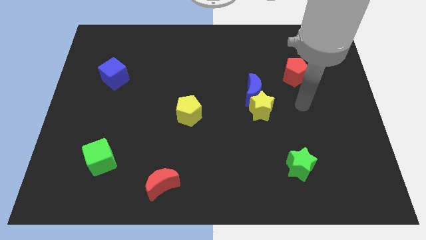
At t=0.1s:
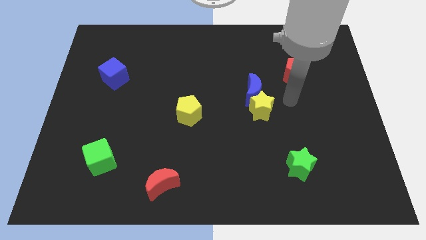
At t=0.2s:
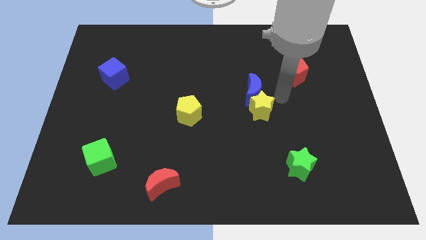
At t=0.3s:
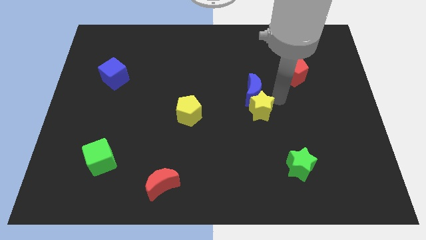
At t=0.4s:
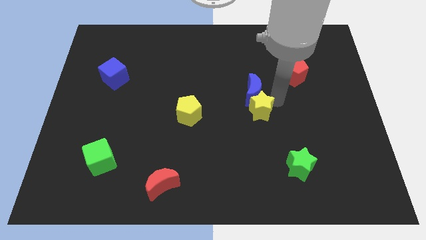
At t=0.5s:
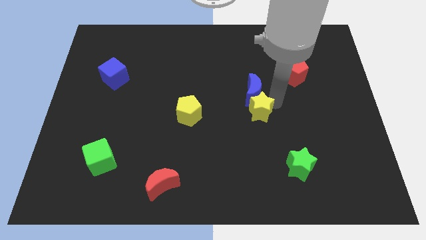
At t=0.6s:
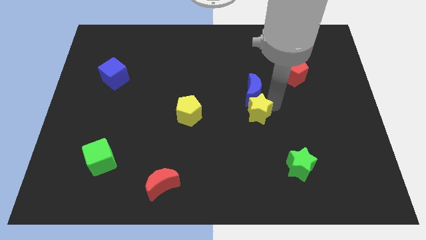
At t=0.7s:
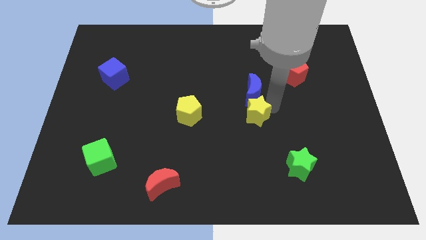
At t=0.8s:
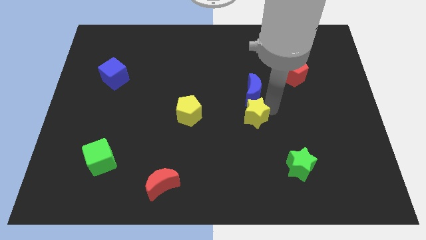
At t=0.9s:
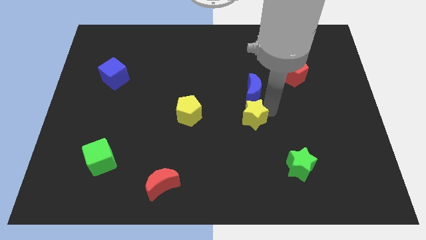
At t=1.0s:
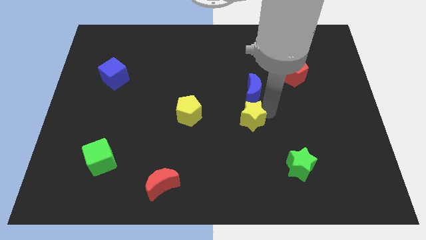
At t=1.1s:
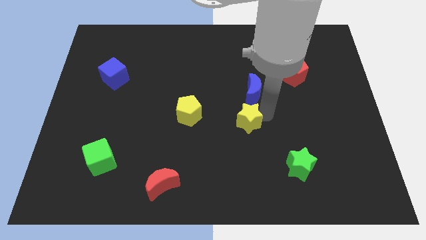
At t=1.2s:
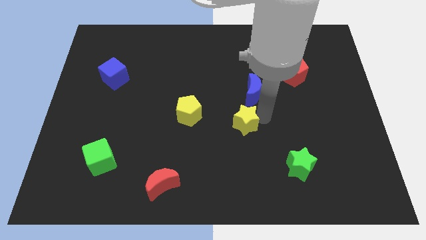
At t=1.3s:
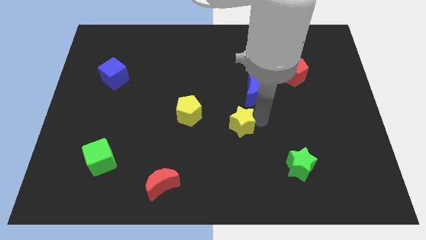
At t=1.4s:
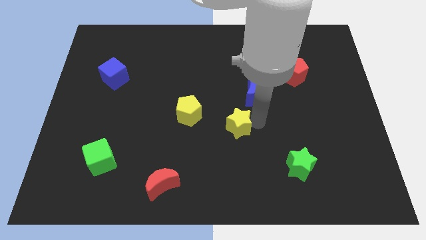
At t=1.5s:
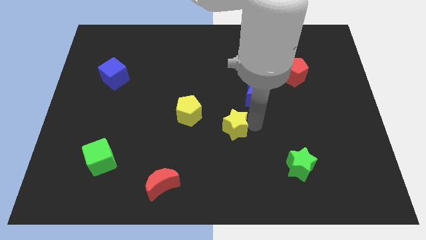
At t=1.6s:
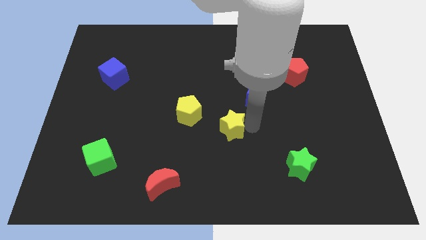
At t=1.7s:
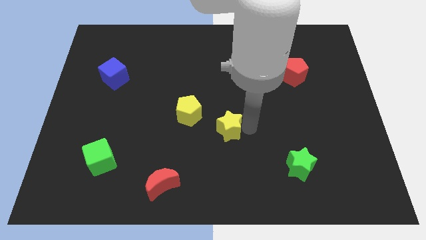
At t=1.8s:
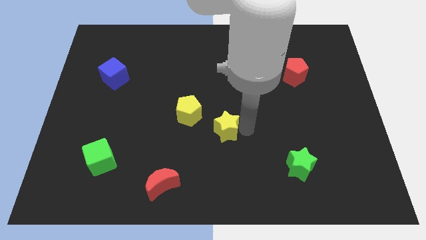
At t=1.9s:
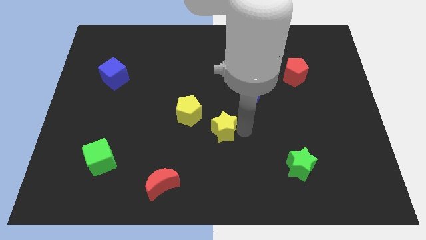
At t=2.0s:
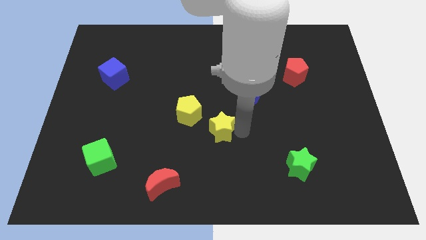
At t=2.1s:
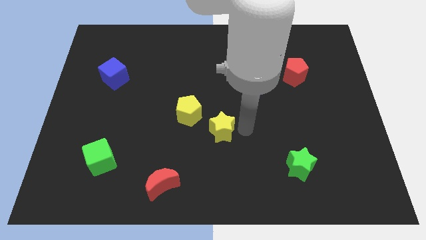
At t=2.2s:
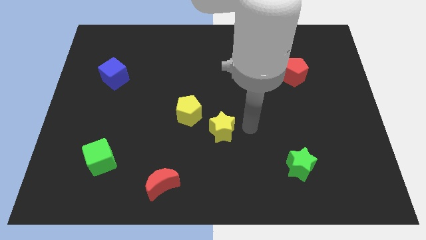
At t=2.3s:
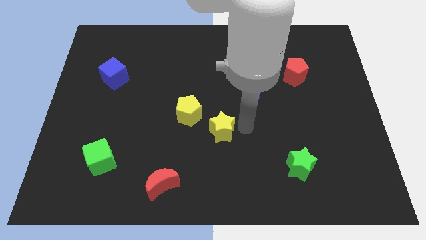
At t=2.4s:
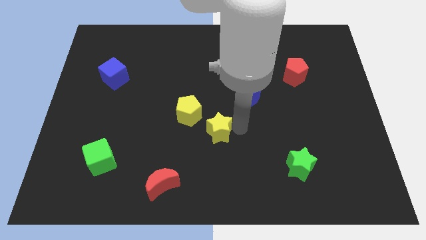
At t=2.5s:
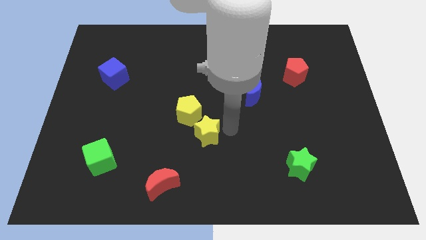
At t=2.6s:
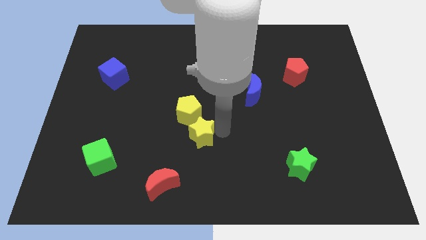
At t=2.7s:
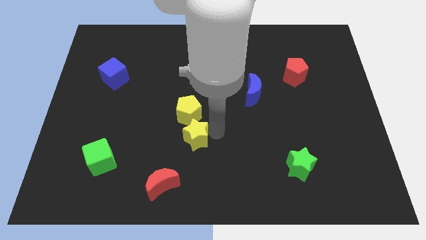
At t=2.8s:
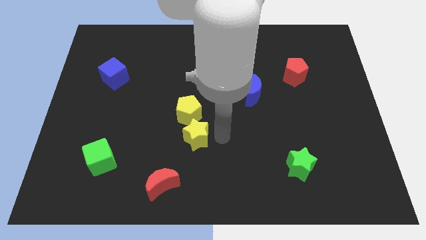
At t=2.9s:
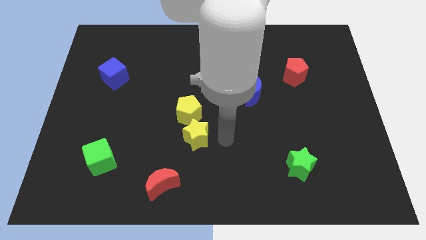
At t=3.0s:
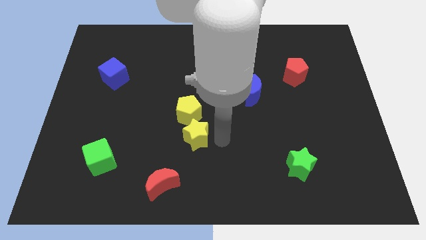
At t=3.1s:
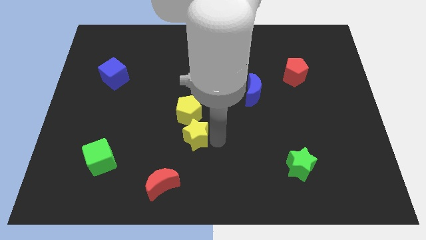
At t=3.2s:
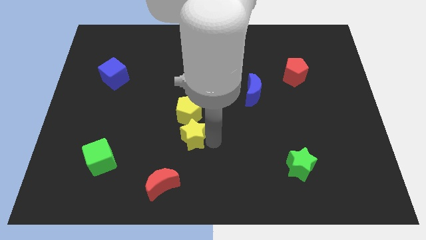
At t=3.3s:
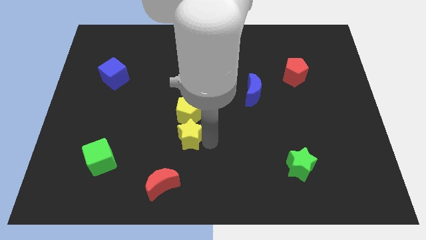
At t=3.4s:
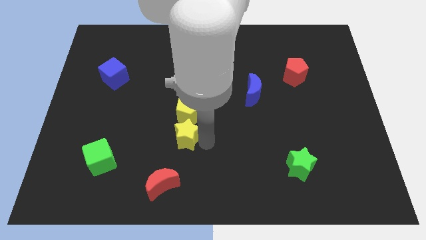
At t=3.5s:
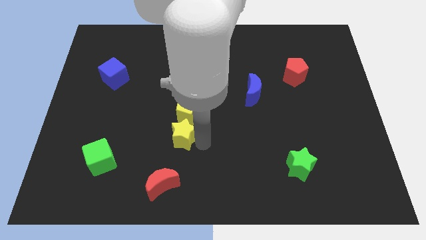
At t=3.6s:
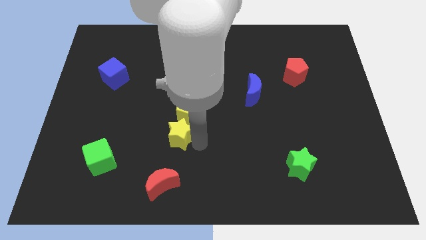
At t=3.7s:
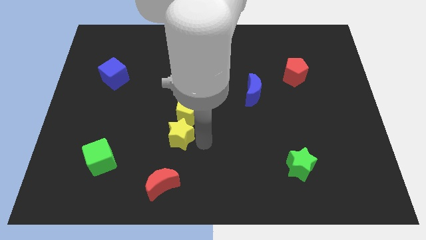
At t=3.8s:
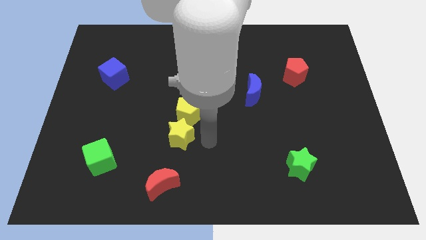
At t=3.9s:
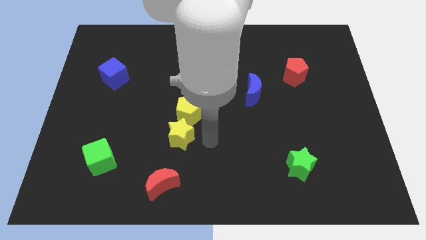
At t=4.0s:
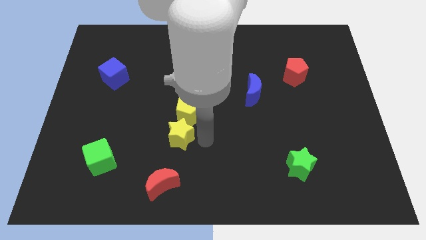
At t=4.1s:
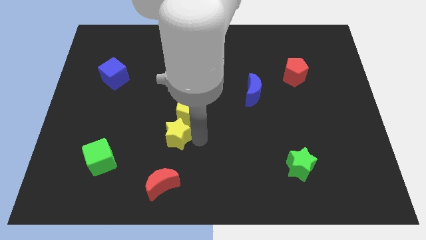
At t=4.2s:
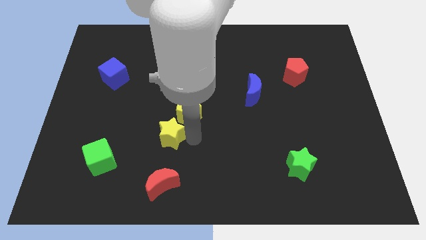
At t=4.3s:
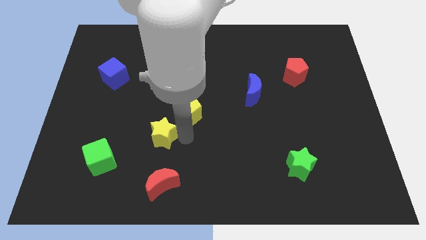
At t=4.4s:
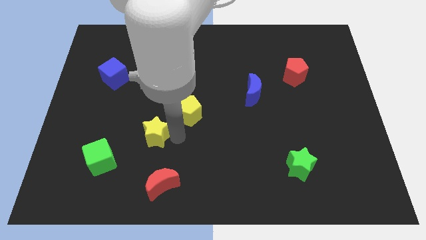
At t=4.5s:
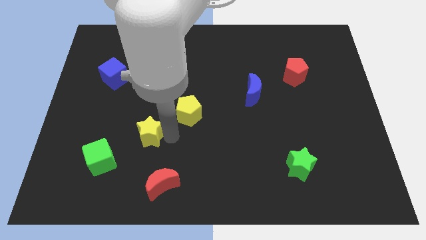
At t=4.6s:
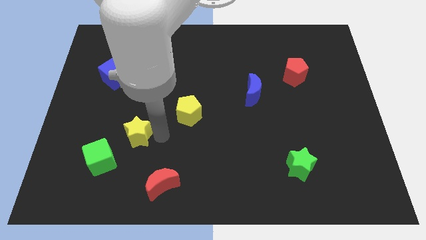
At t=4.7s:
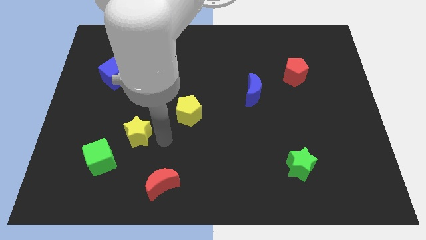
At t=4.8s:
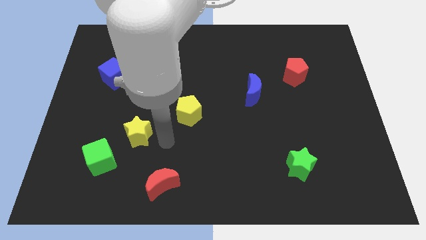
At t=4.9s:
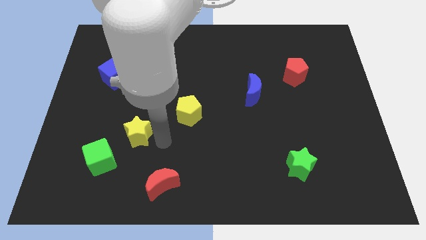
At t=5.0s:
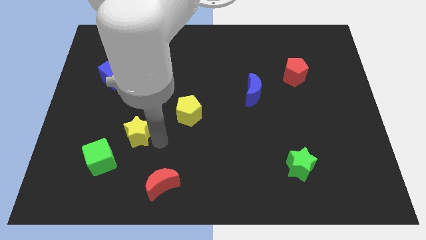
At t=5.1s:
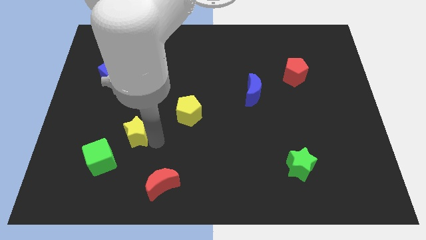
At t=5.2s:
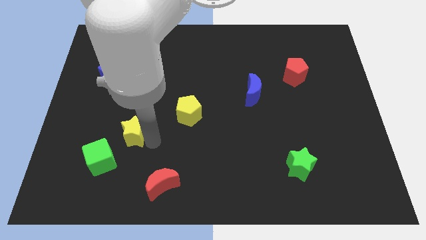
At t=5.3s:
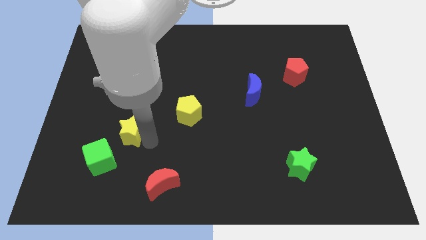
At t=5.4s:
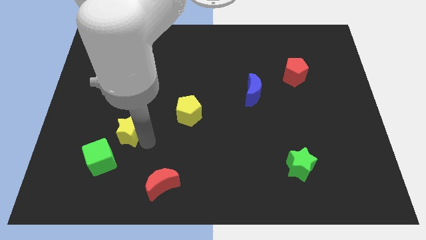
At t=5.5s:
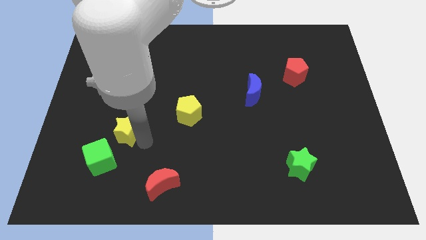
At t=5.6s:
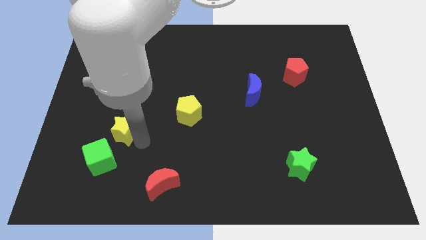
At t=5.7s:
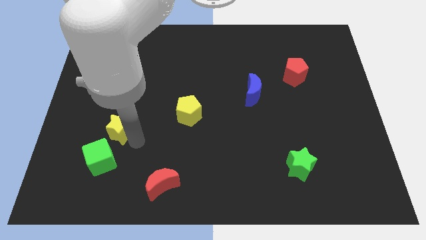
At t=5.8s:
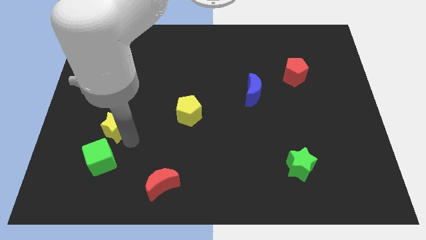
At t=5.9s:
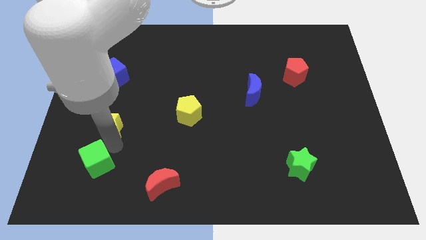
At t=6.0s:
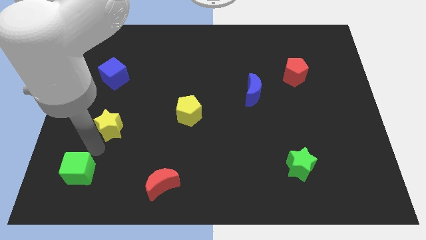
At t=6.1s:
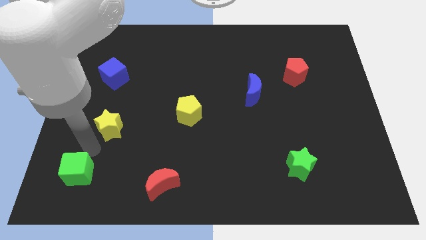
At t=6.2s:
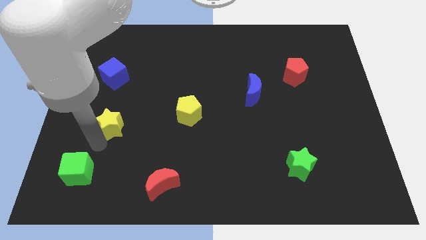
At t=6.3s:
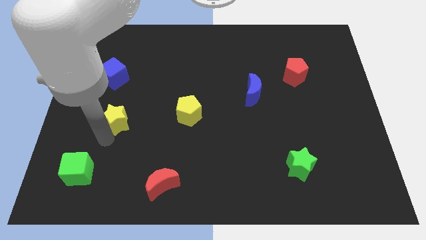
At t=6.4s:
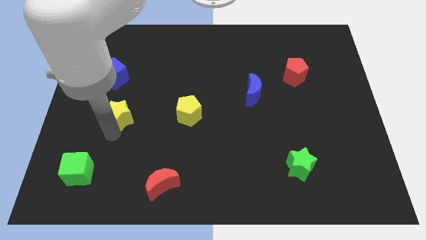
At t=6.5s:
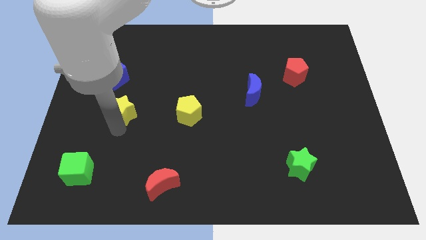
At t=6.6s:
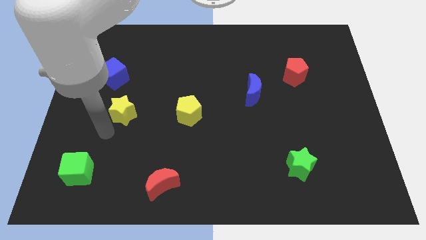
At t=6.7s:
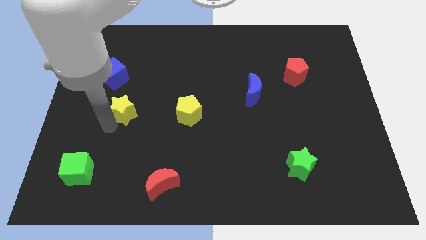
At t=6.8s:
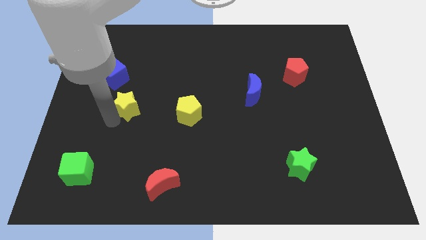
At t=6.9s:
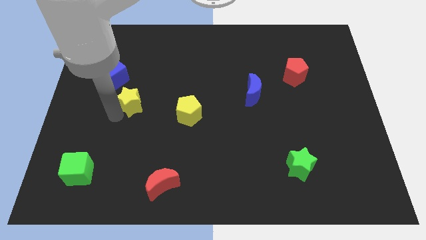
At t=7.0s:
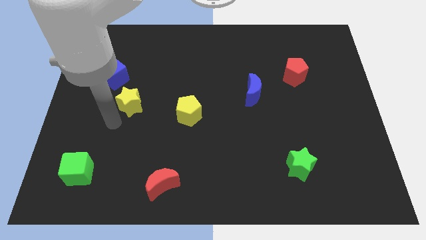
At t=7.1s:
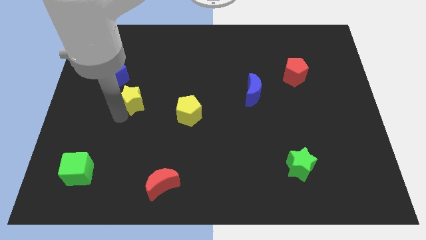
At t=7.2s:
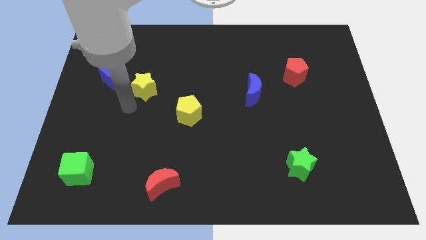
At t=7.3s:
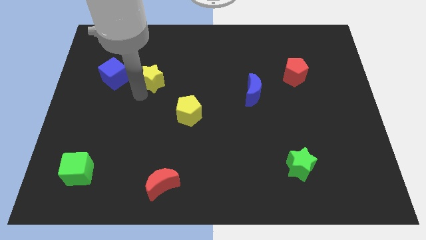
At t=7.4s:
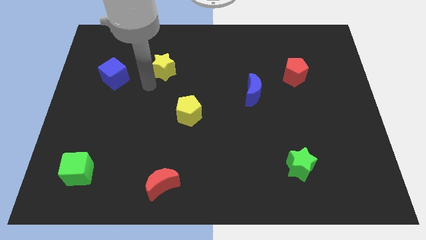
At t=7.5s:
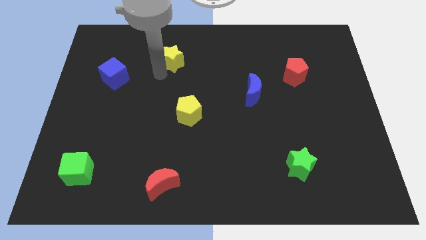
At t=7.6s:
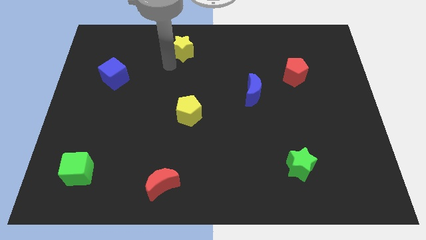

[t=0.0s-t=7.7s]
slide the yellow star to the top side
